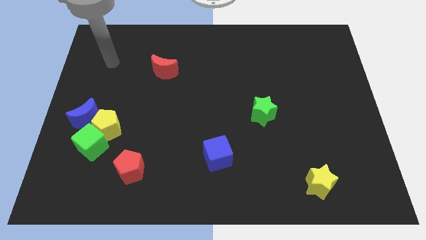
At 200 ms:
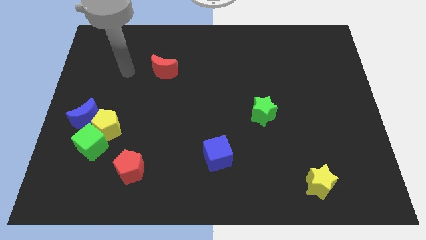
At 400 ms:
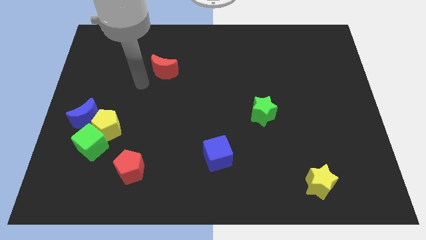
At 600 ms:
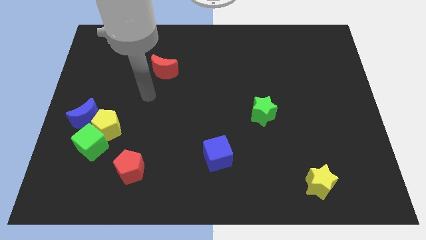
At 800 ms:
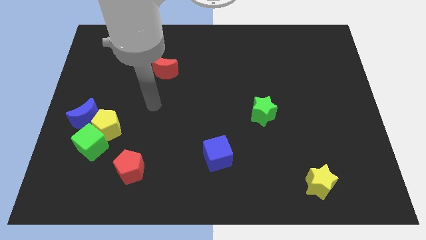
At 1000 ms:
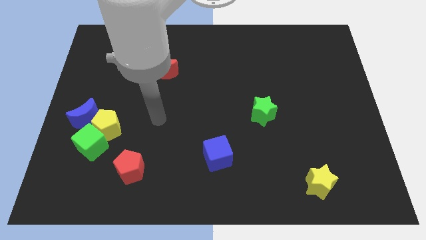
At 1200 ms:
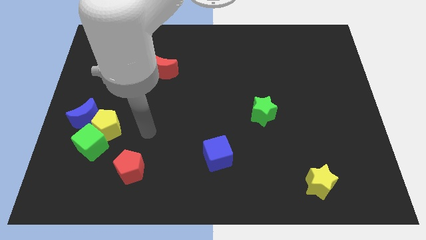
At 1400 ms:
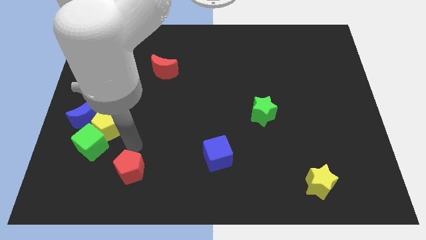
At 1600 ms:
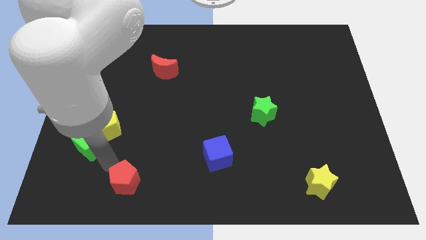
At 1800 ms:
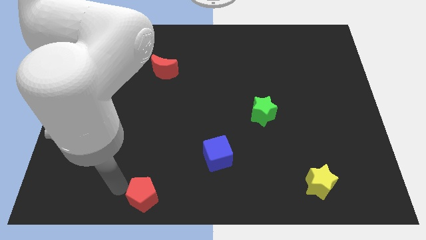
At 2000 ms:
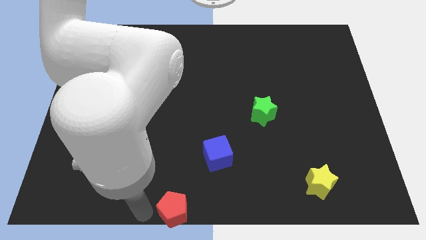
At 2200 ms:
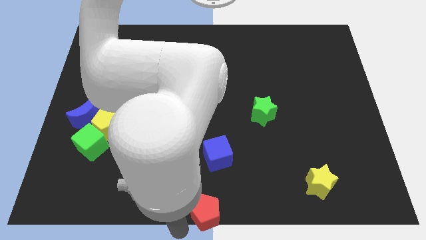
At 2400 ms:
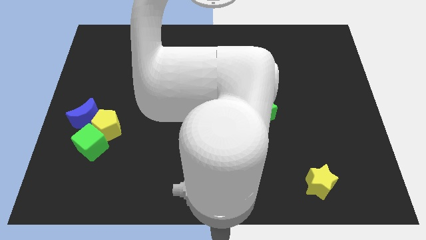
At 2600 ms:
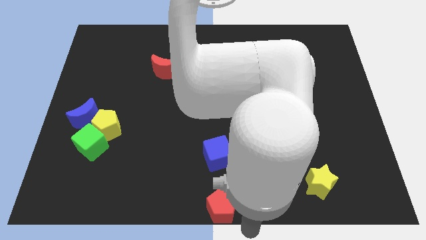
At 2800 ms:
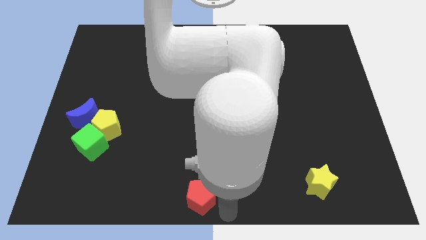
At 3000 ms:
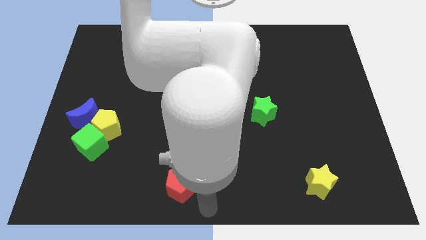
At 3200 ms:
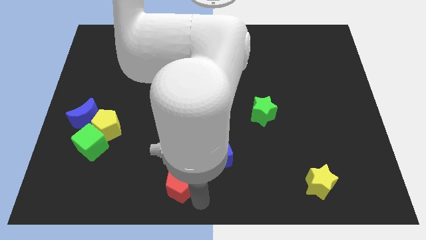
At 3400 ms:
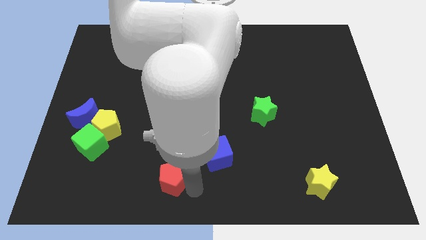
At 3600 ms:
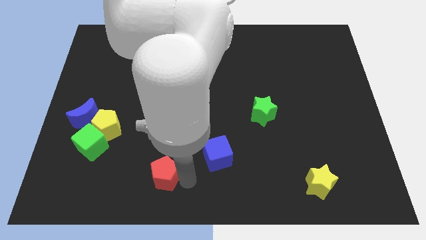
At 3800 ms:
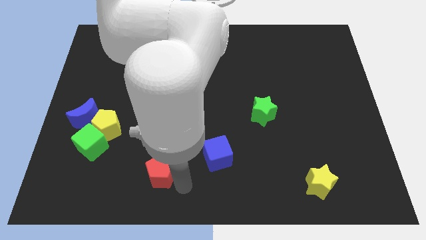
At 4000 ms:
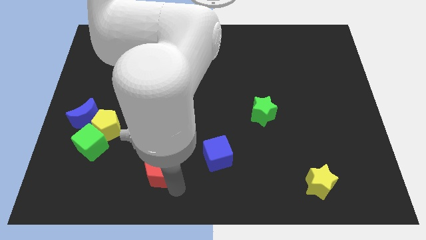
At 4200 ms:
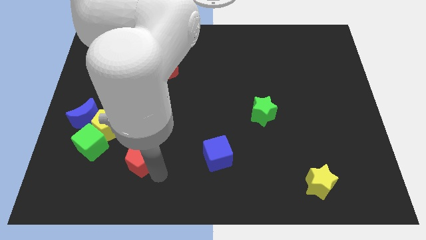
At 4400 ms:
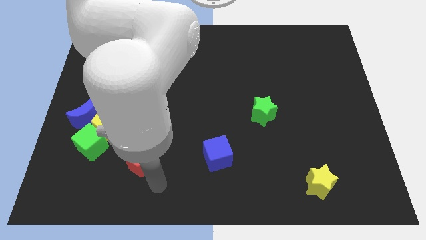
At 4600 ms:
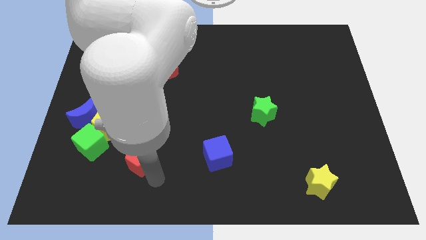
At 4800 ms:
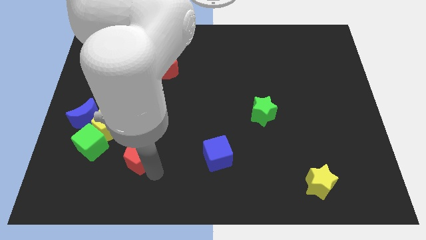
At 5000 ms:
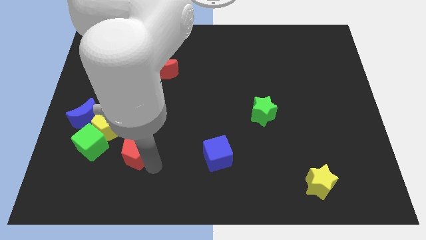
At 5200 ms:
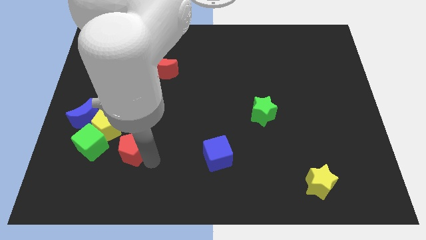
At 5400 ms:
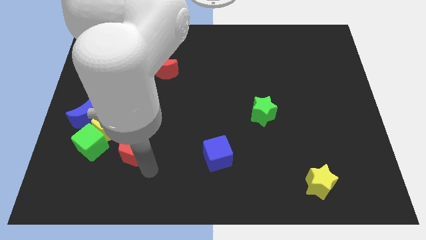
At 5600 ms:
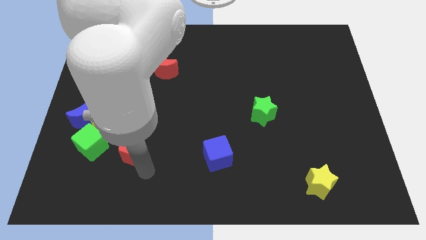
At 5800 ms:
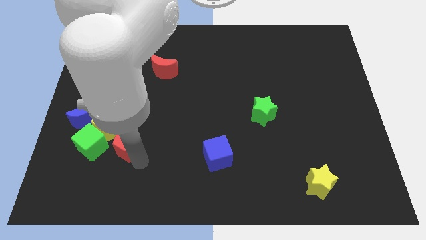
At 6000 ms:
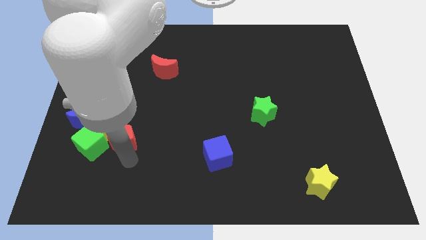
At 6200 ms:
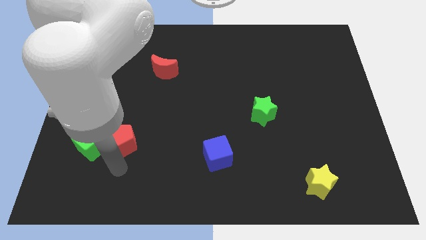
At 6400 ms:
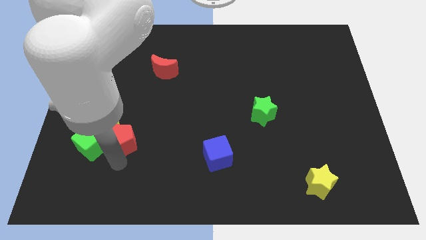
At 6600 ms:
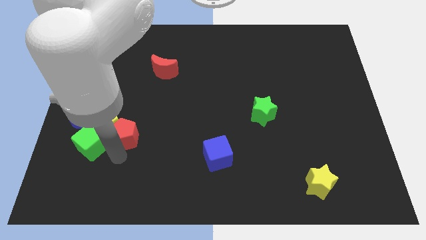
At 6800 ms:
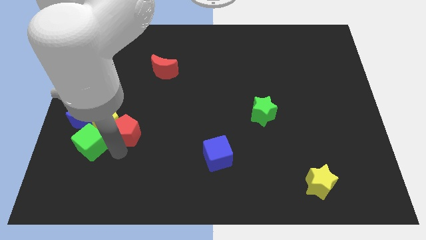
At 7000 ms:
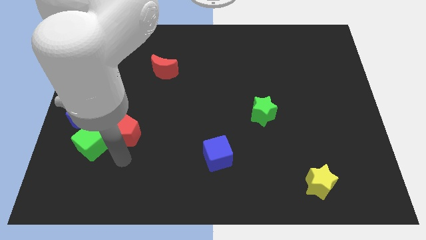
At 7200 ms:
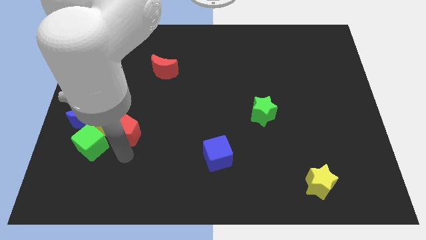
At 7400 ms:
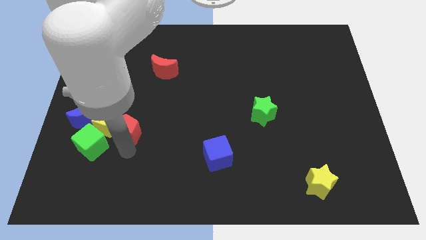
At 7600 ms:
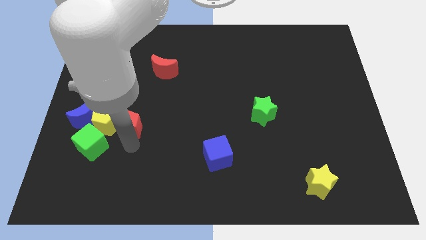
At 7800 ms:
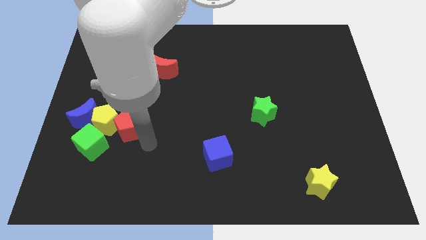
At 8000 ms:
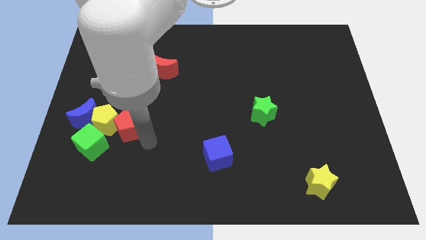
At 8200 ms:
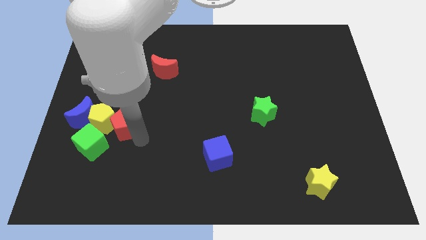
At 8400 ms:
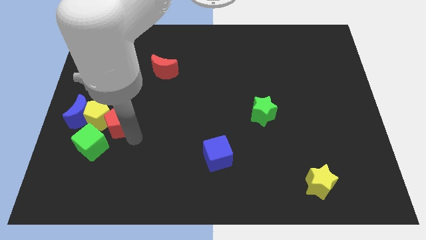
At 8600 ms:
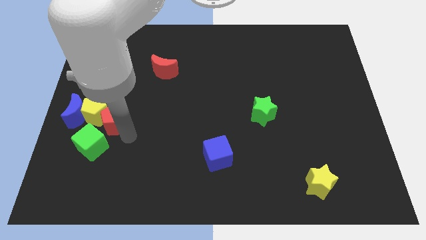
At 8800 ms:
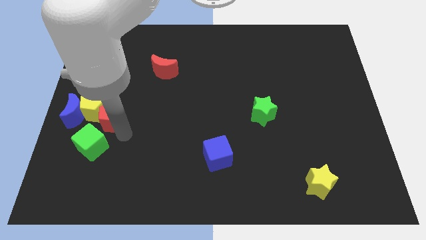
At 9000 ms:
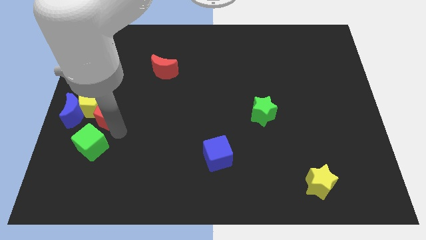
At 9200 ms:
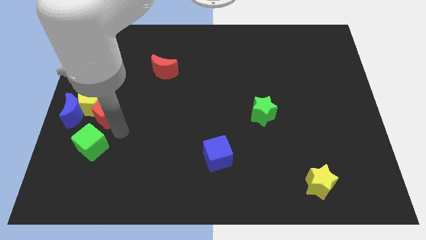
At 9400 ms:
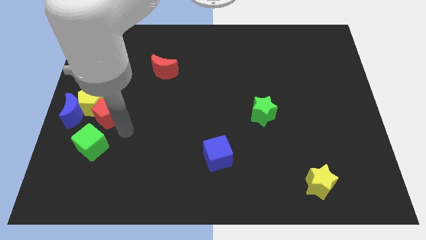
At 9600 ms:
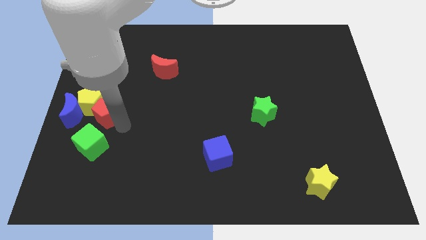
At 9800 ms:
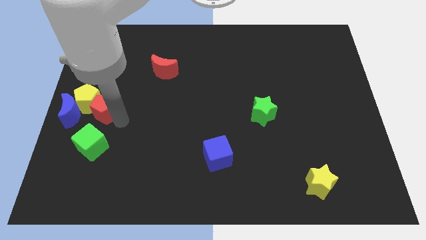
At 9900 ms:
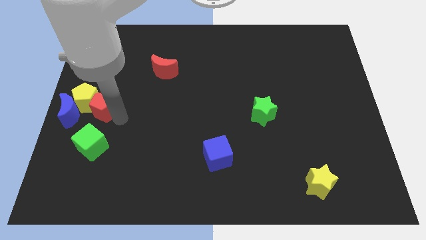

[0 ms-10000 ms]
put the red pentagon to the left side

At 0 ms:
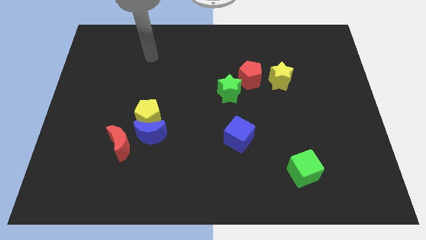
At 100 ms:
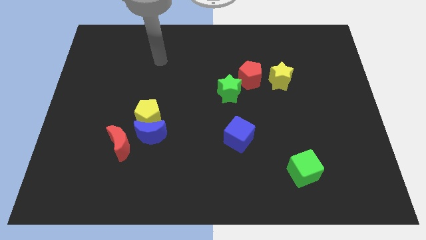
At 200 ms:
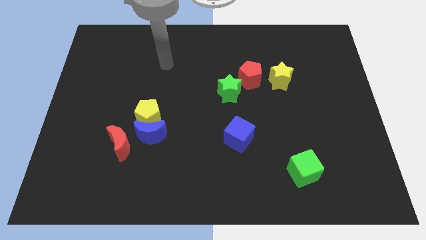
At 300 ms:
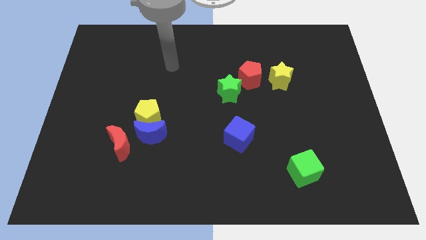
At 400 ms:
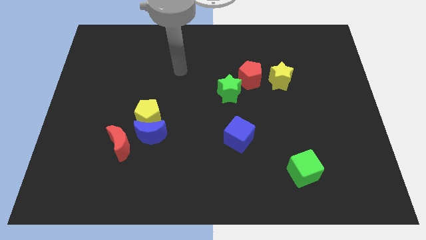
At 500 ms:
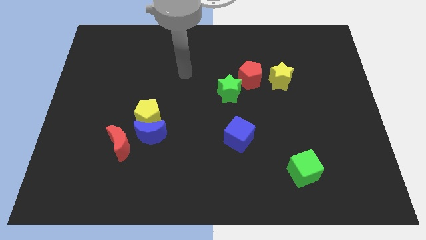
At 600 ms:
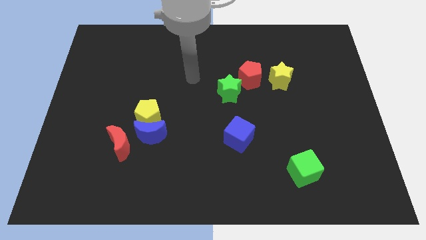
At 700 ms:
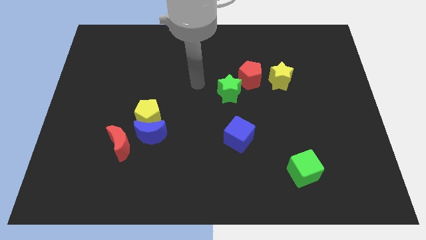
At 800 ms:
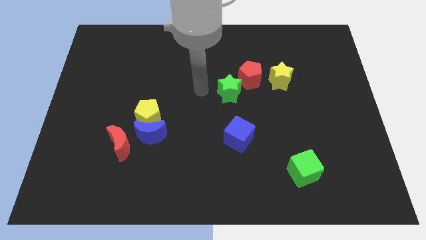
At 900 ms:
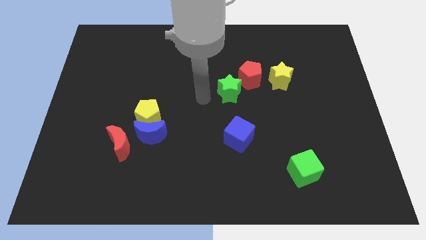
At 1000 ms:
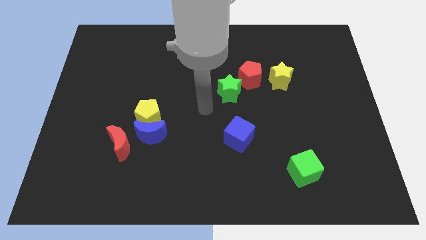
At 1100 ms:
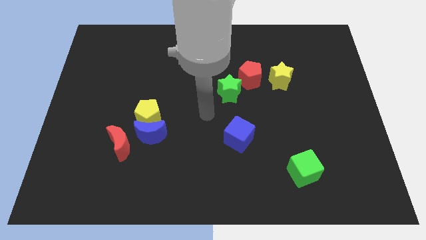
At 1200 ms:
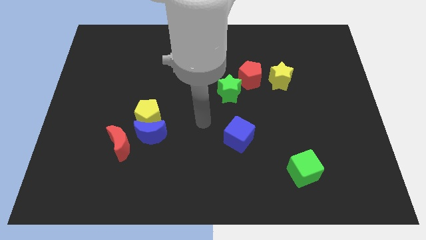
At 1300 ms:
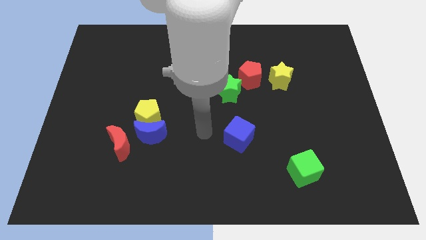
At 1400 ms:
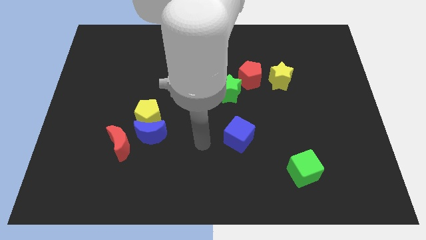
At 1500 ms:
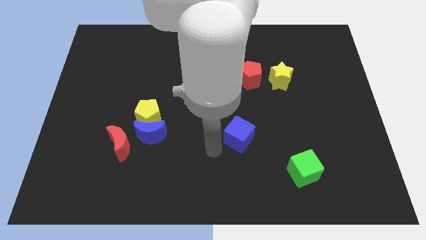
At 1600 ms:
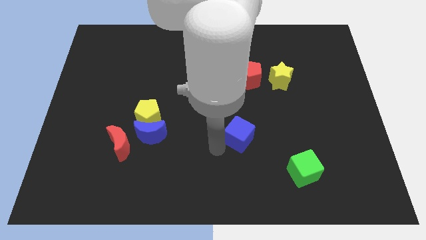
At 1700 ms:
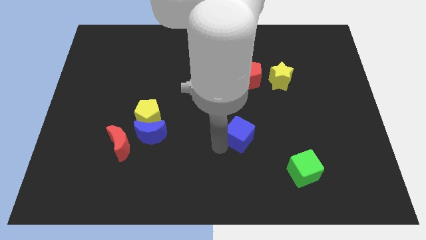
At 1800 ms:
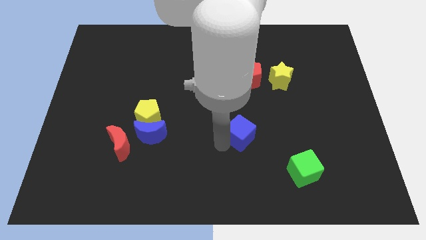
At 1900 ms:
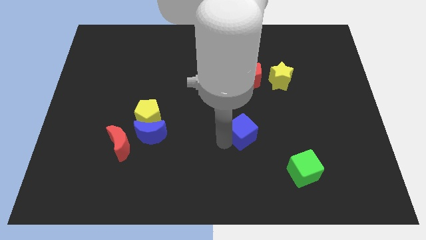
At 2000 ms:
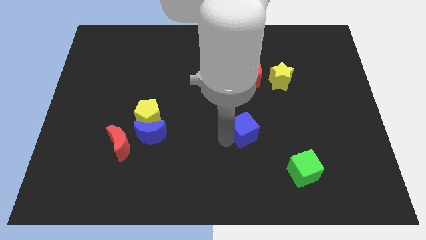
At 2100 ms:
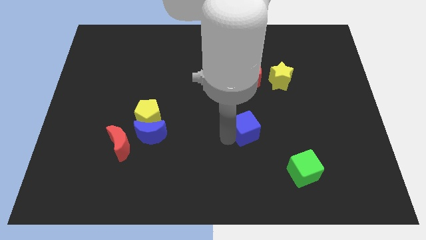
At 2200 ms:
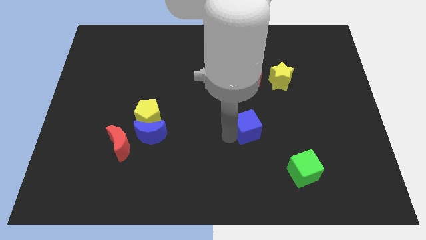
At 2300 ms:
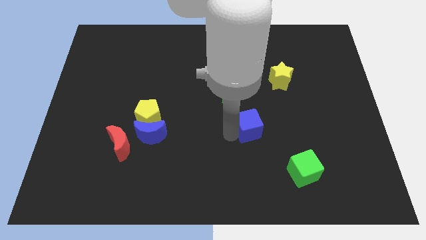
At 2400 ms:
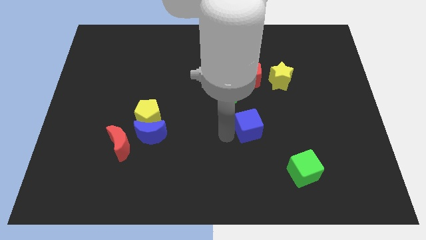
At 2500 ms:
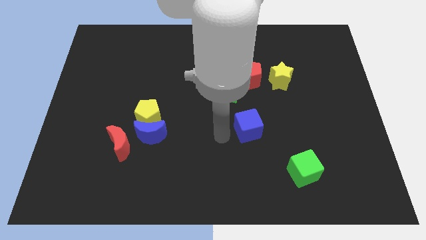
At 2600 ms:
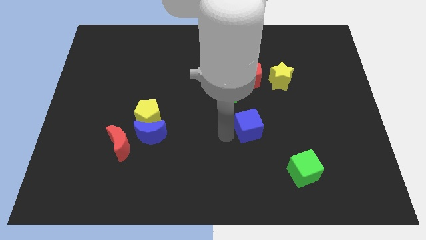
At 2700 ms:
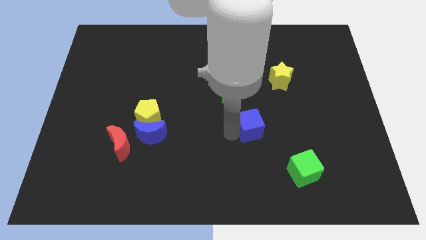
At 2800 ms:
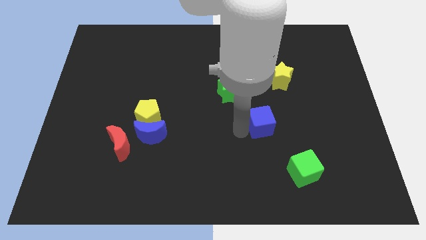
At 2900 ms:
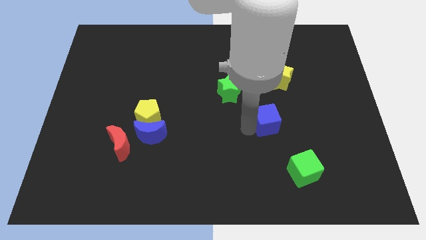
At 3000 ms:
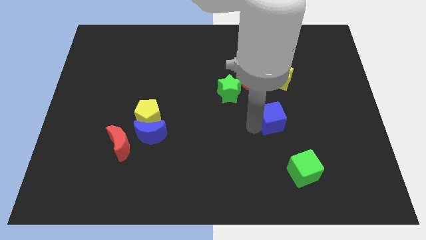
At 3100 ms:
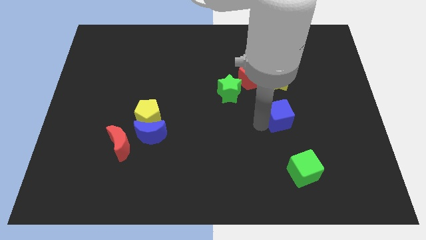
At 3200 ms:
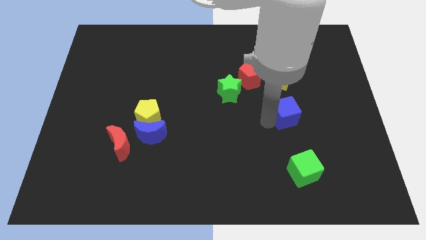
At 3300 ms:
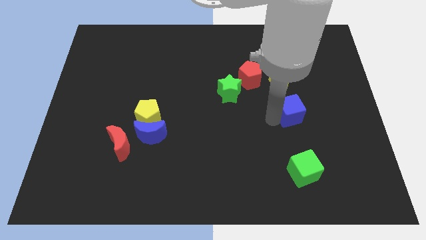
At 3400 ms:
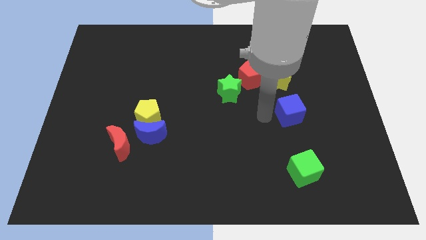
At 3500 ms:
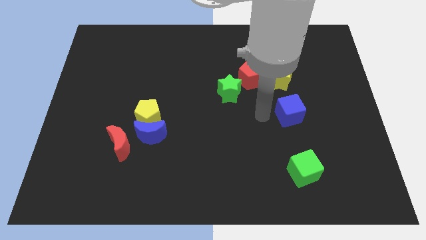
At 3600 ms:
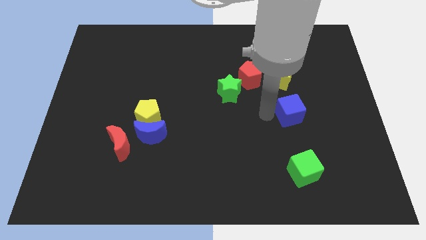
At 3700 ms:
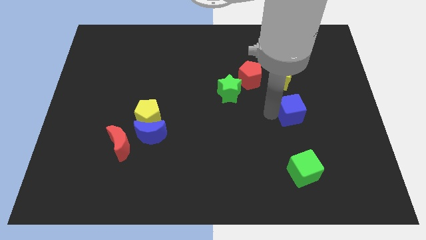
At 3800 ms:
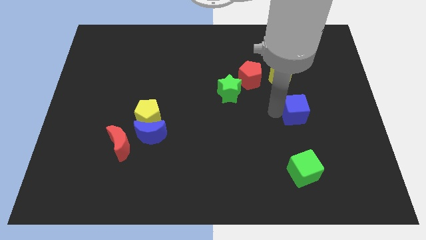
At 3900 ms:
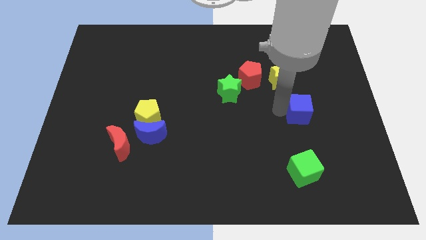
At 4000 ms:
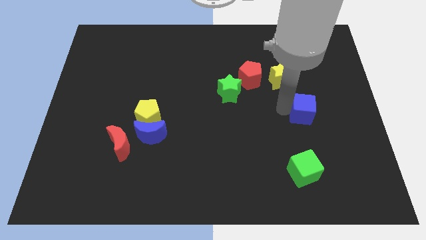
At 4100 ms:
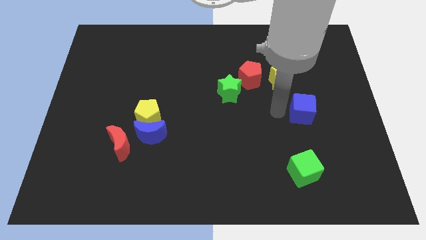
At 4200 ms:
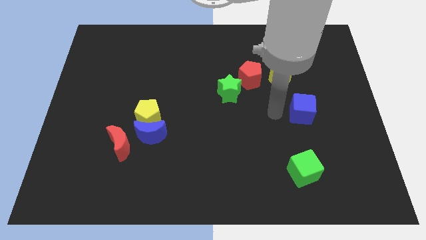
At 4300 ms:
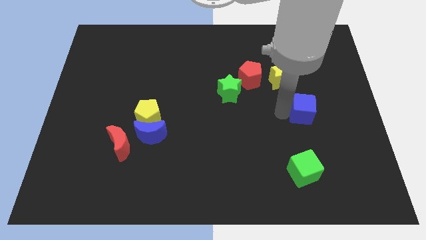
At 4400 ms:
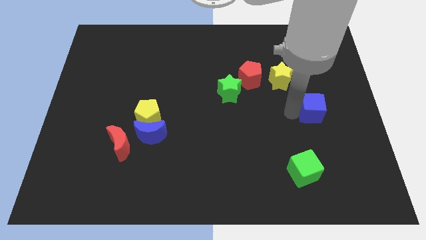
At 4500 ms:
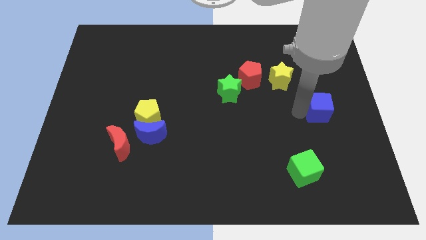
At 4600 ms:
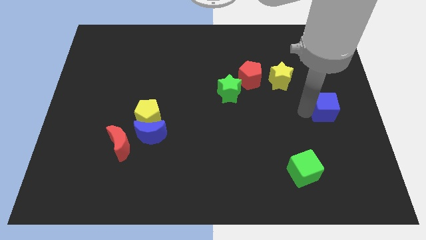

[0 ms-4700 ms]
move the blue cube to the right side of the board
